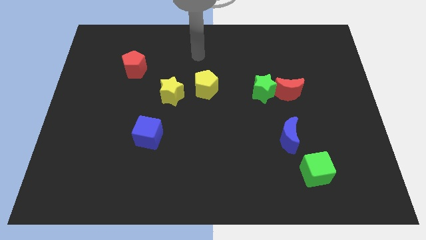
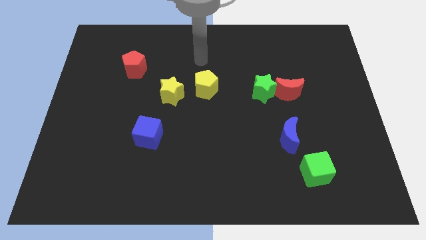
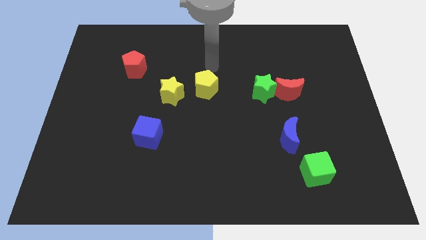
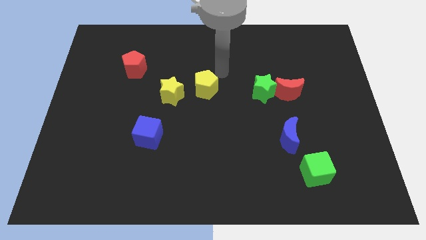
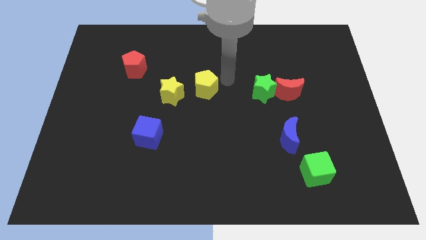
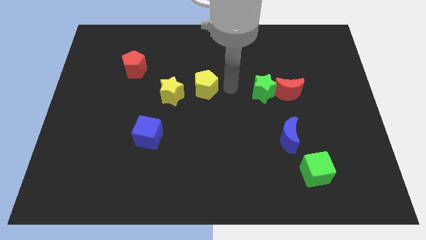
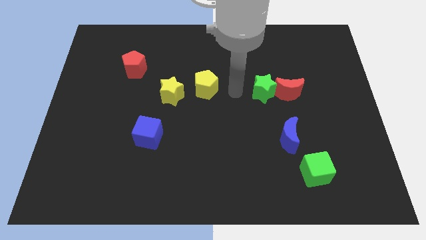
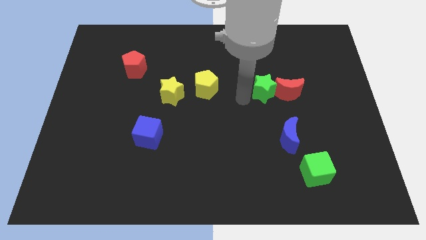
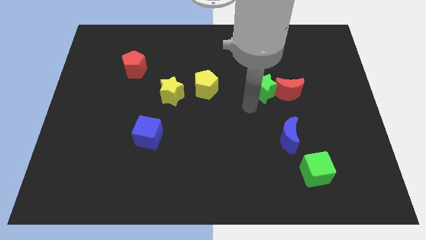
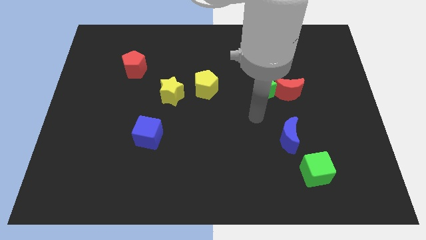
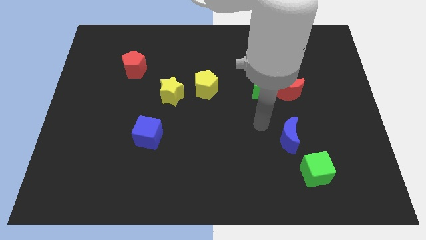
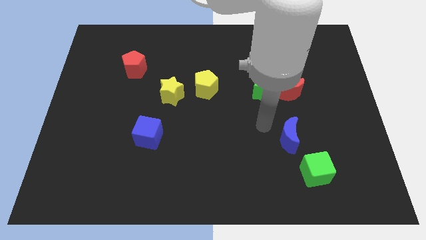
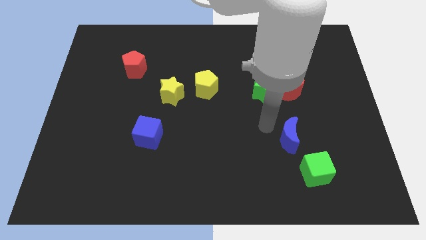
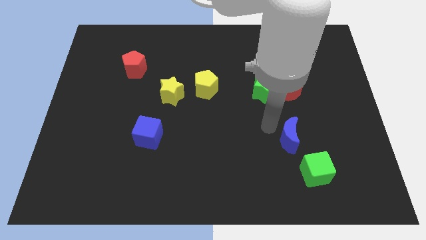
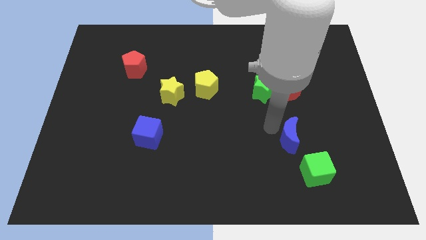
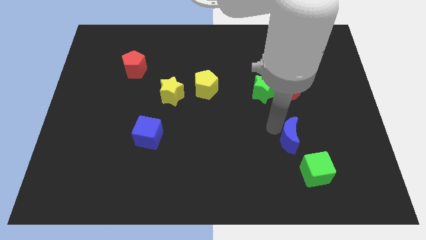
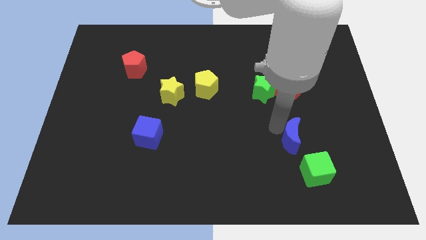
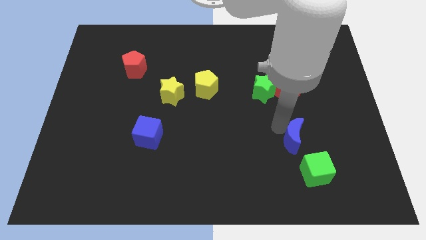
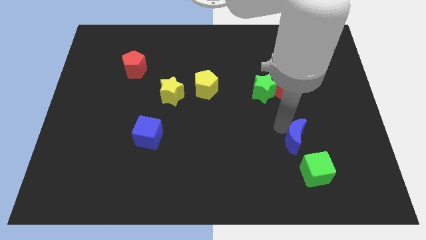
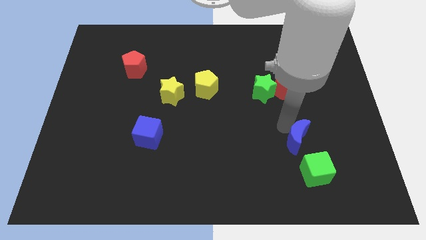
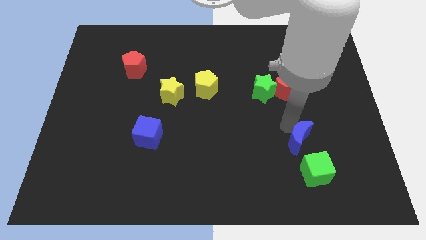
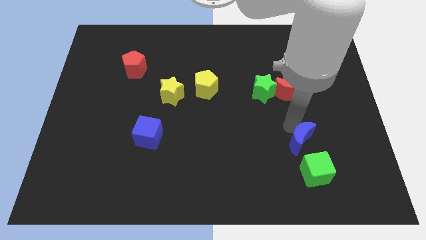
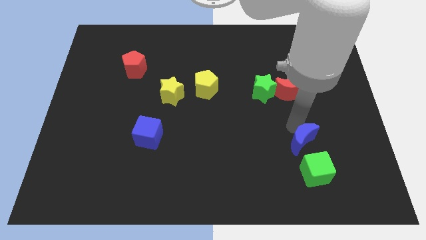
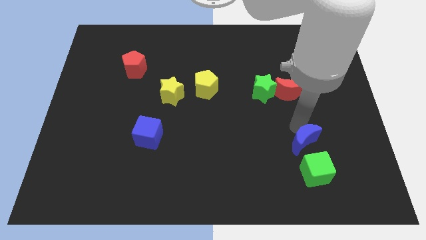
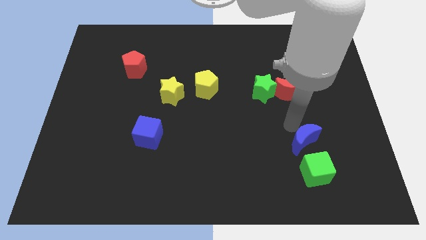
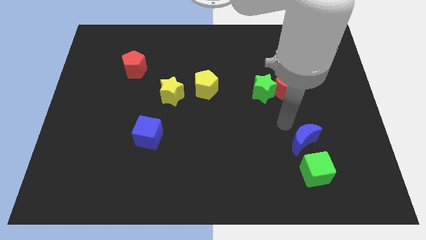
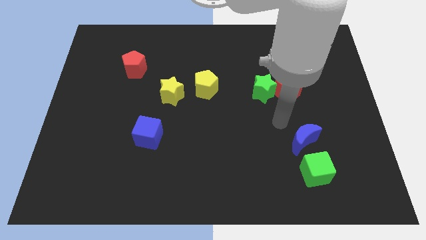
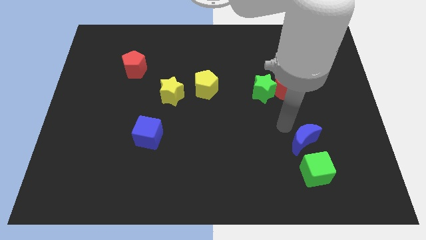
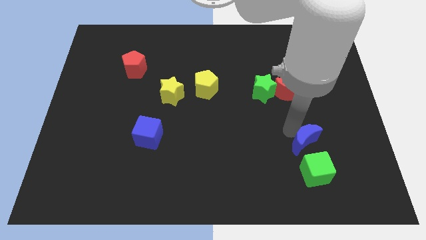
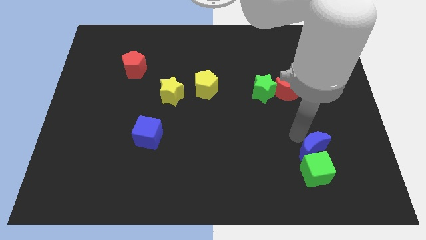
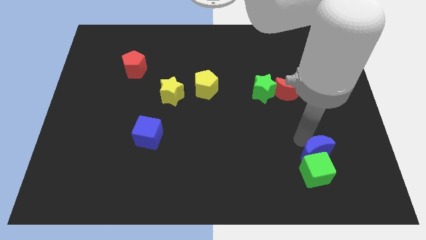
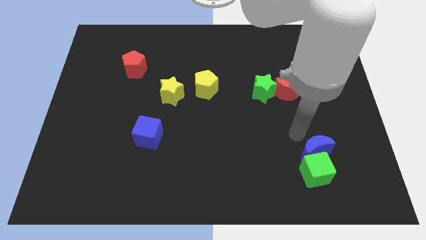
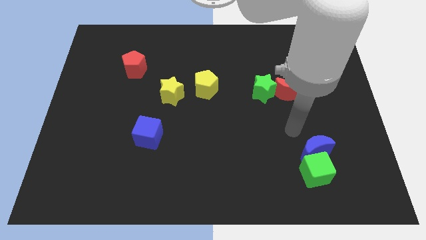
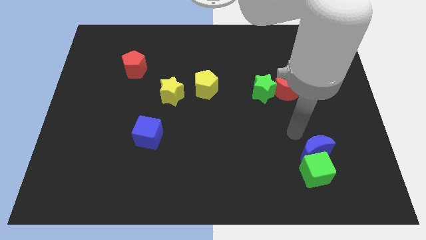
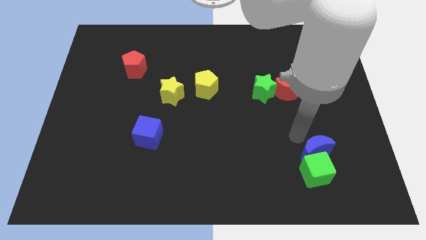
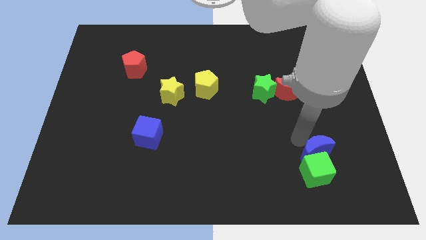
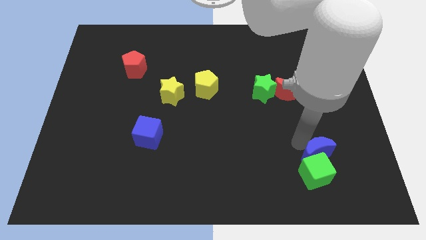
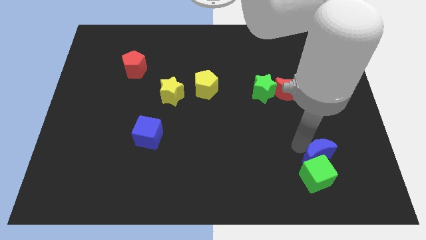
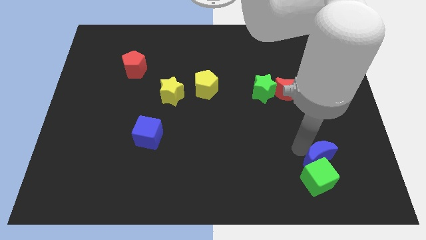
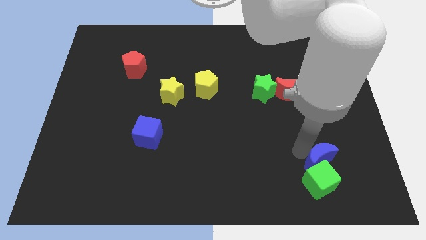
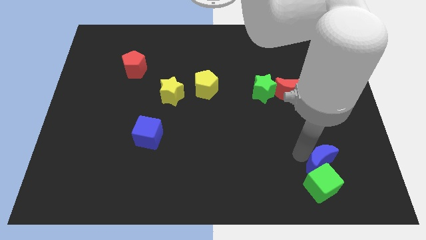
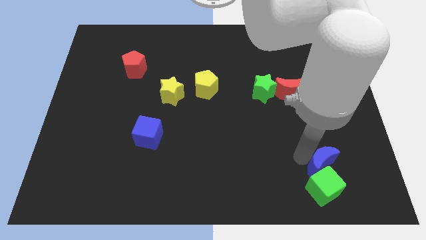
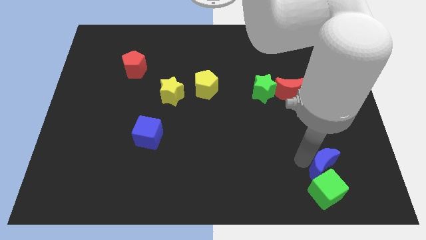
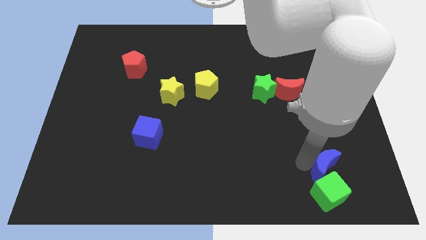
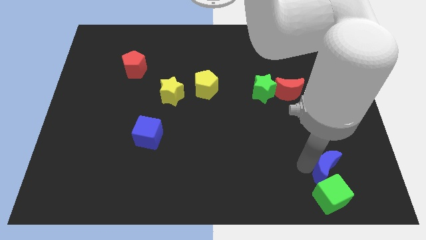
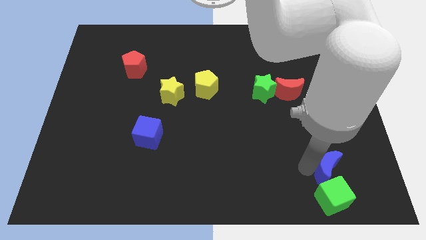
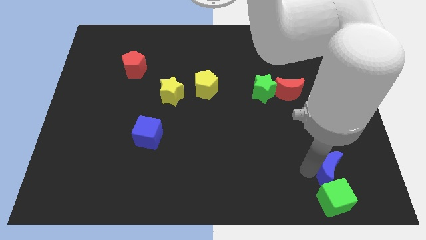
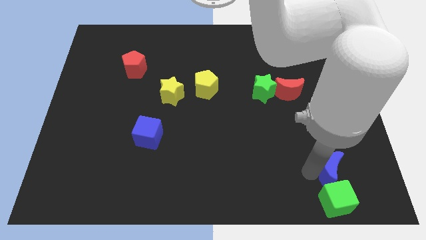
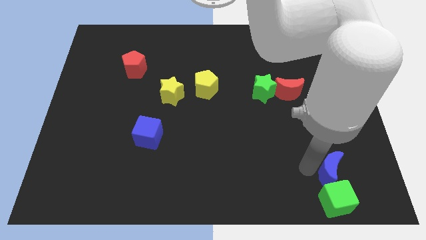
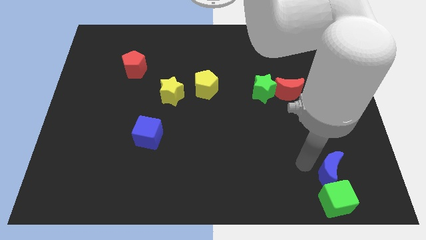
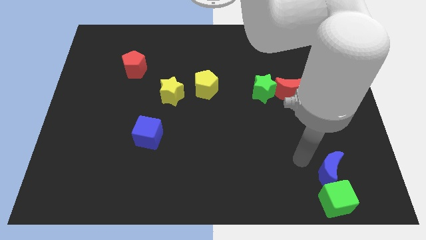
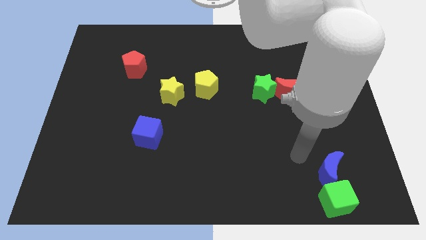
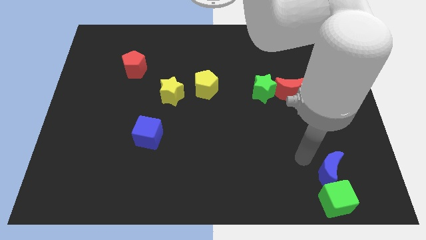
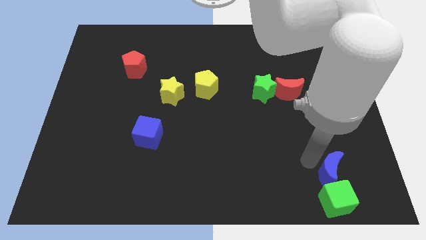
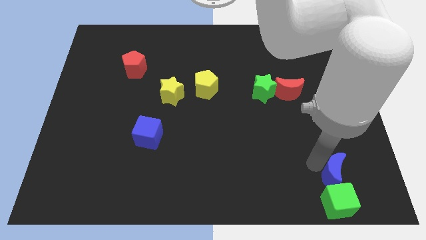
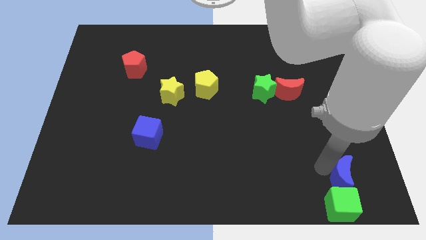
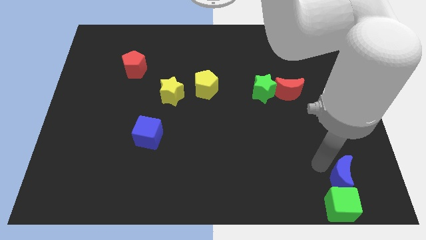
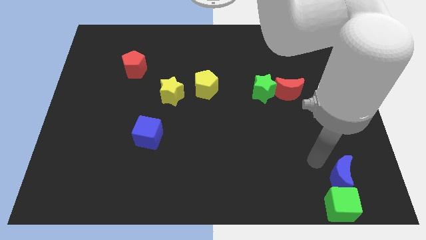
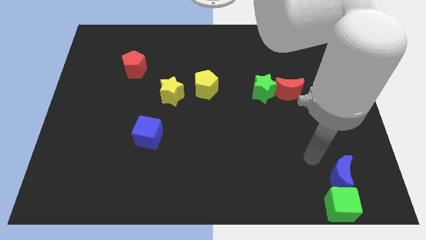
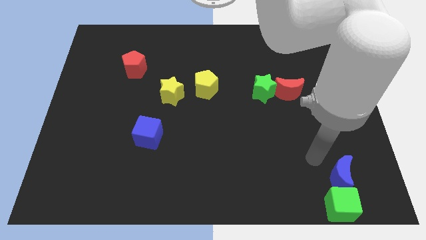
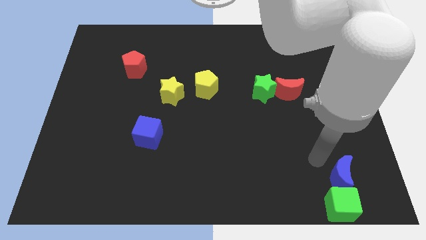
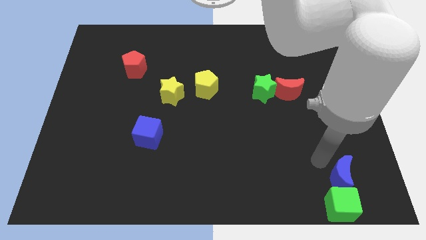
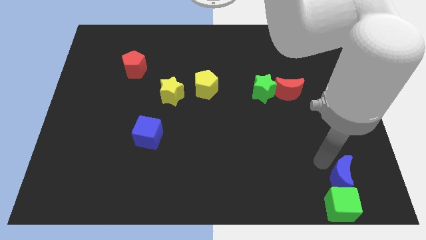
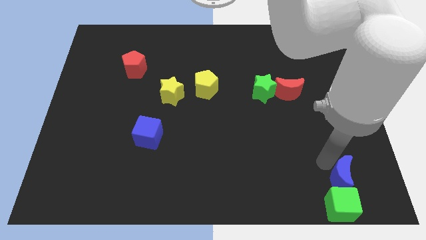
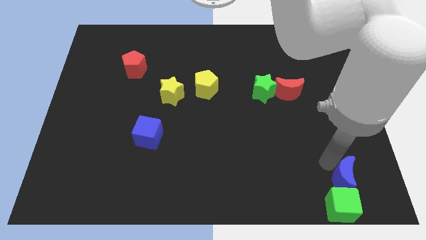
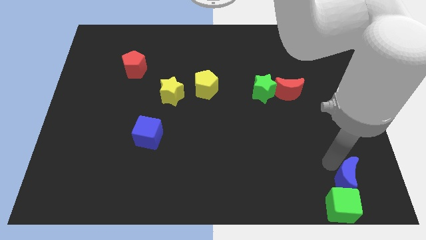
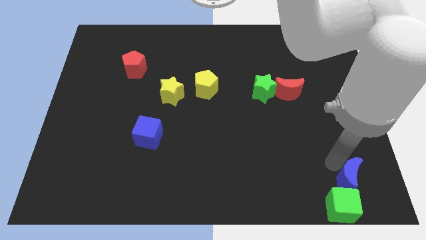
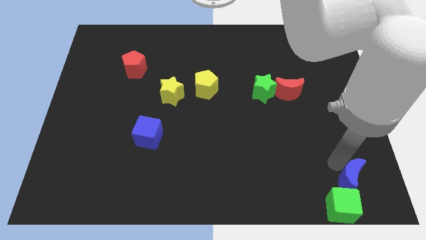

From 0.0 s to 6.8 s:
slide the blue moon to the lower right corner

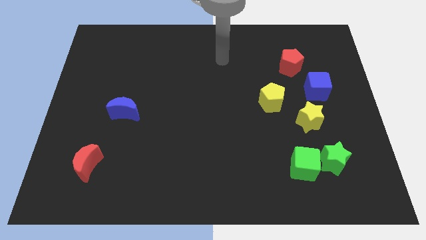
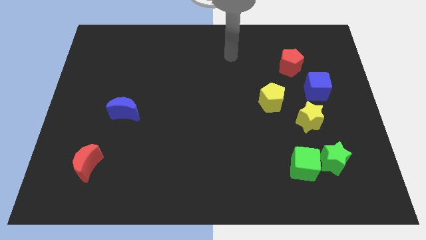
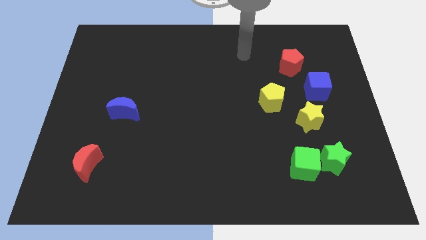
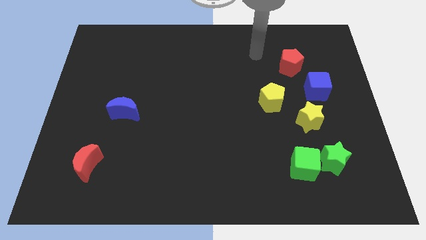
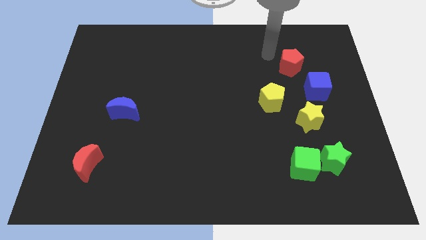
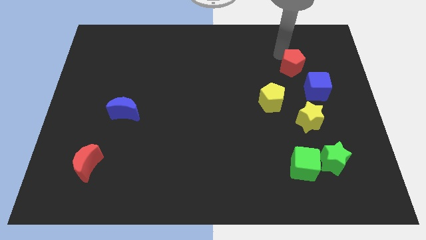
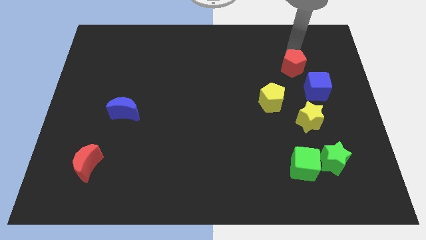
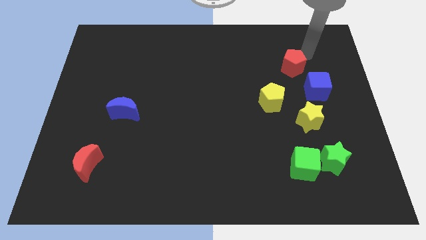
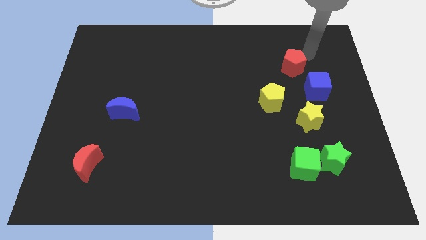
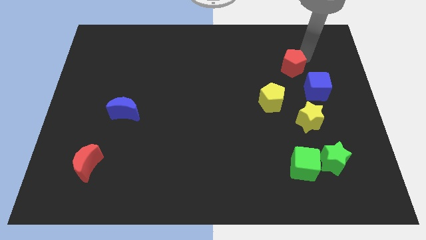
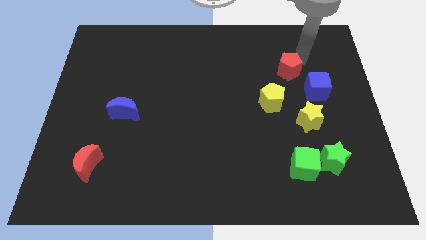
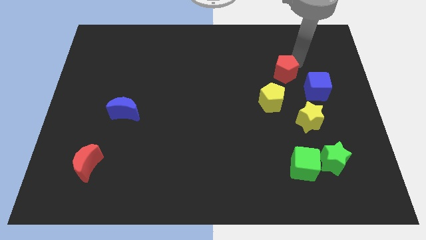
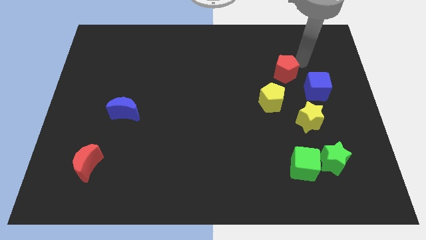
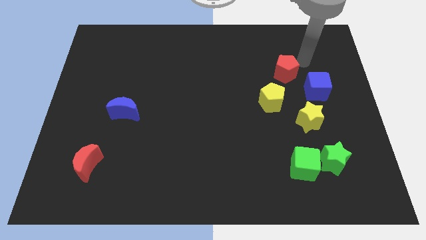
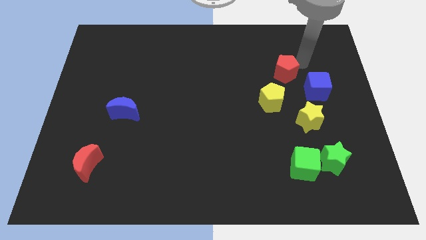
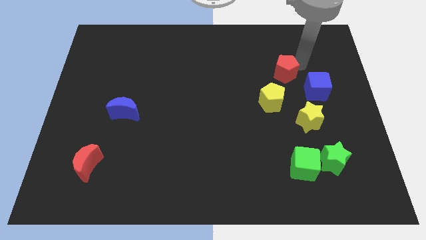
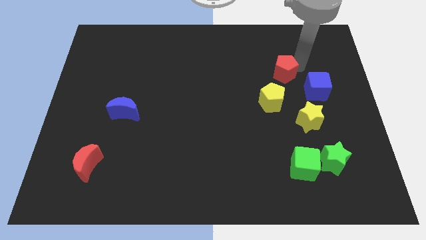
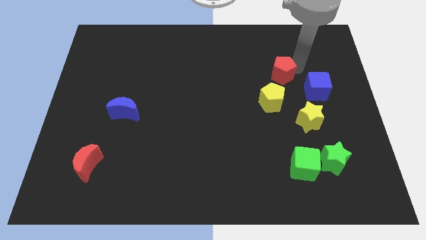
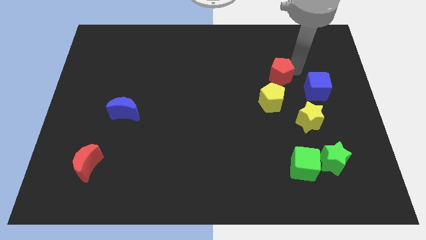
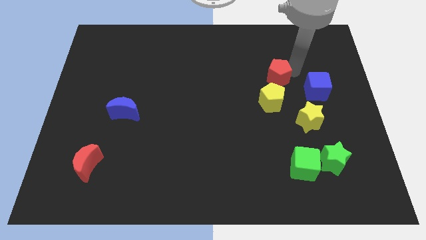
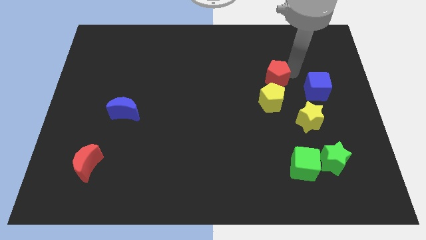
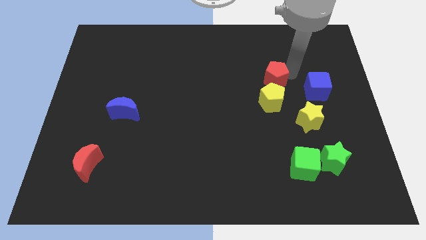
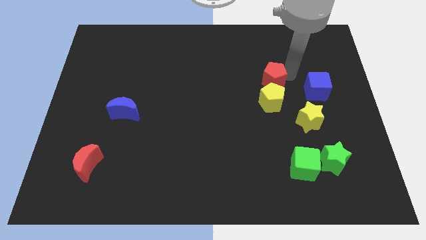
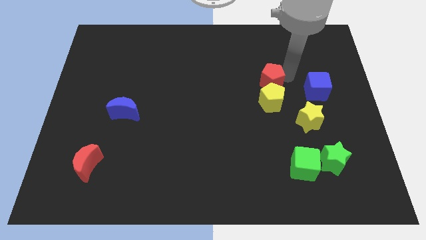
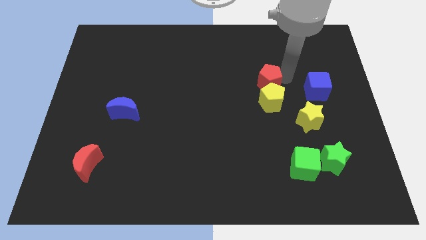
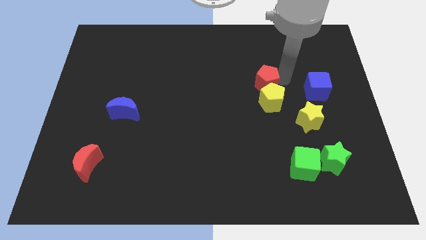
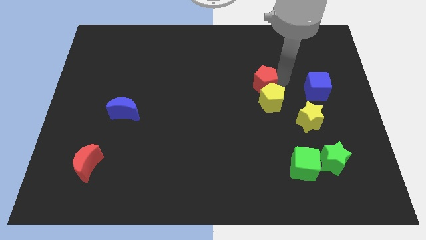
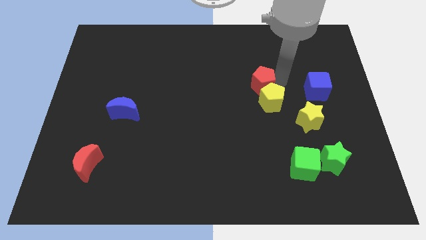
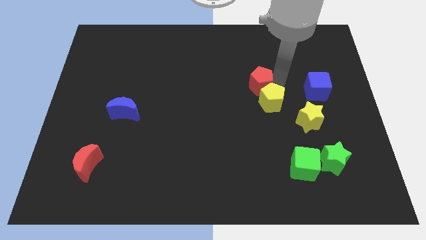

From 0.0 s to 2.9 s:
put the red pentagon to the middle
